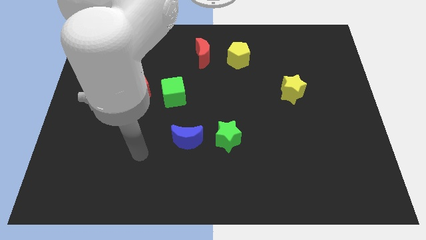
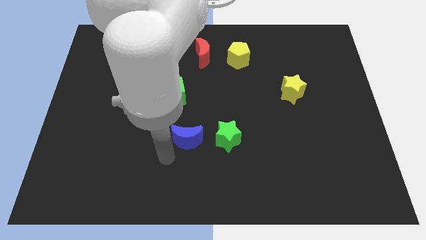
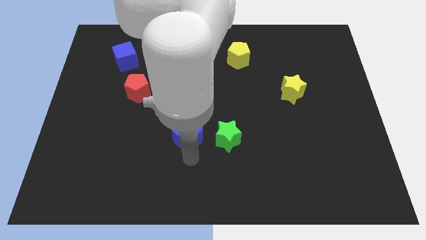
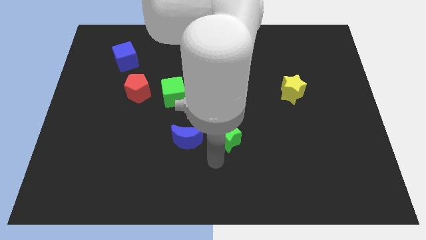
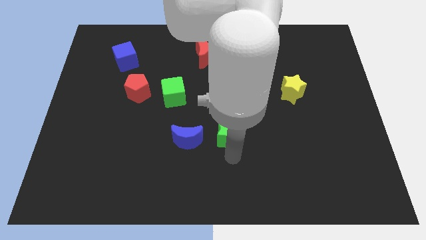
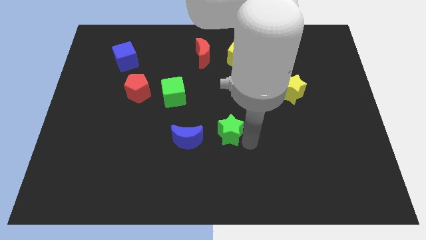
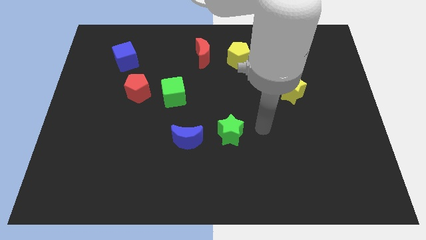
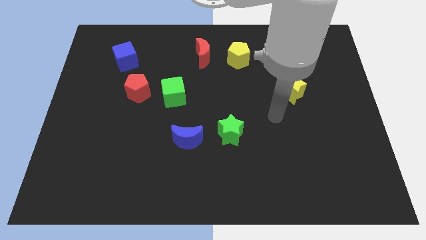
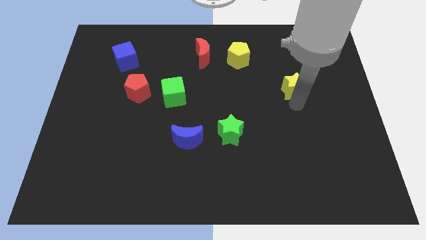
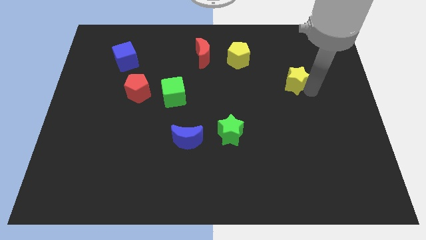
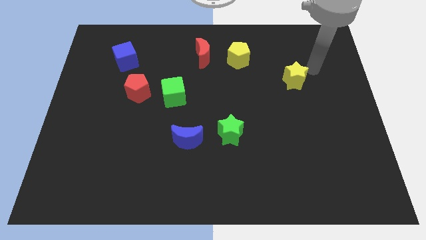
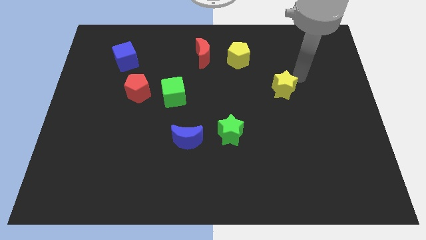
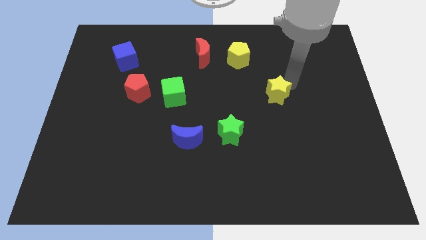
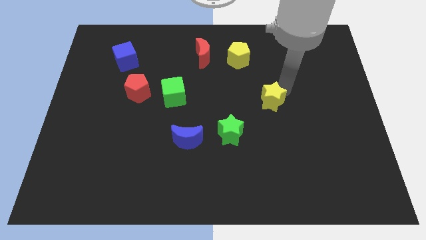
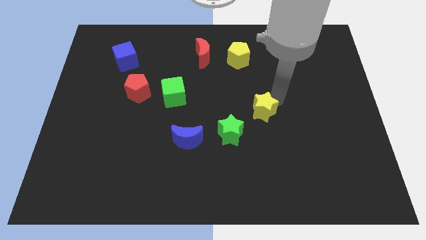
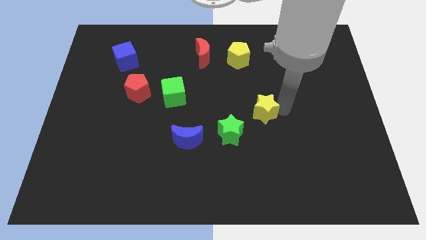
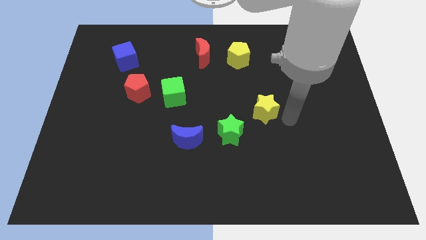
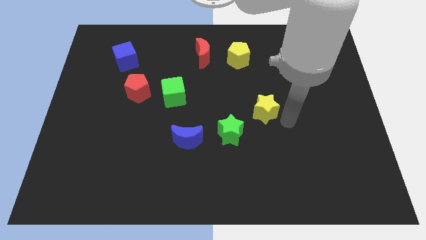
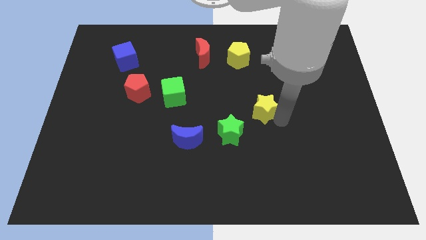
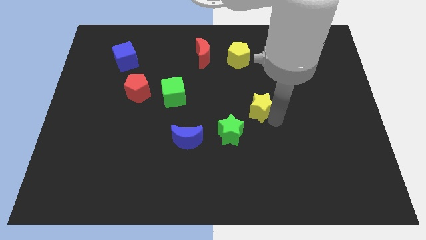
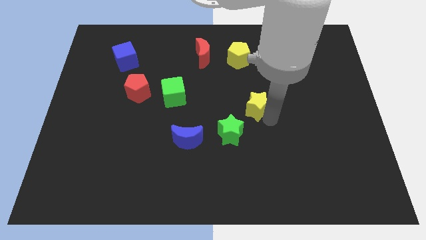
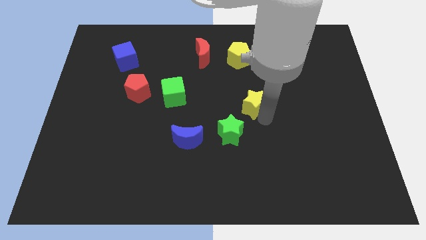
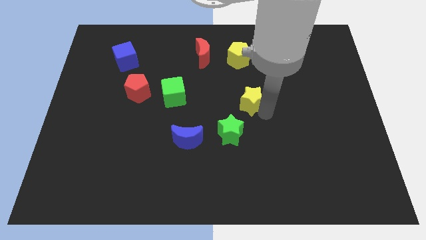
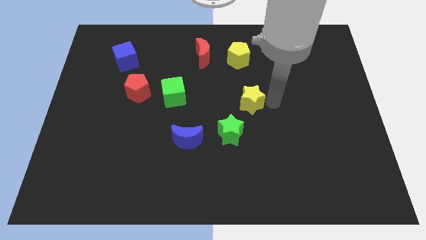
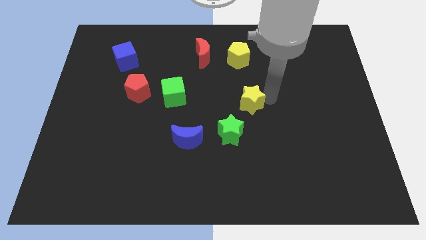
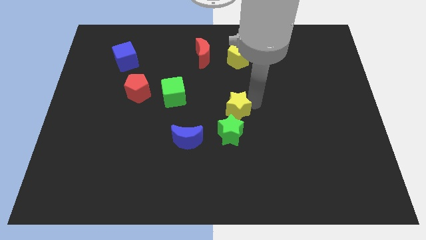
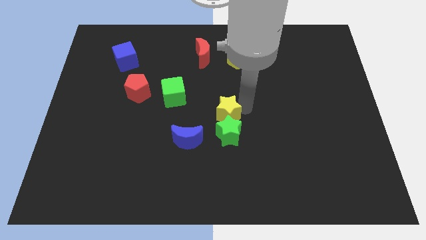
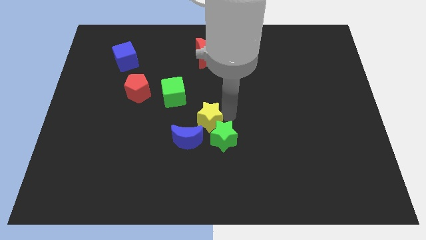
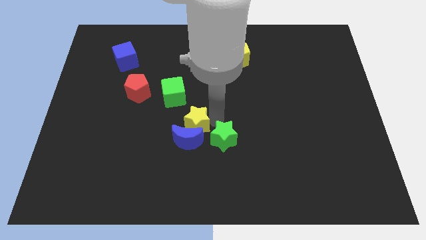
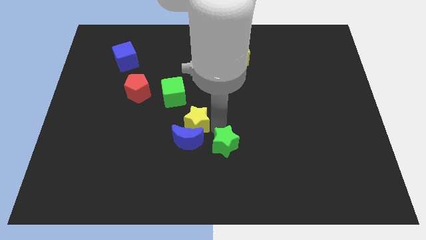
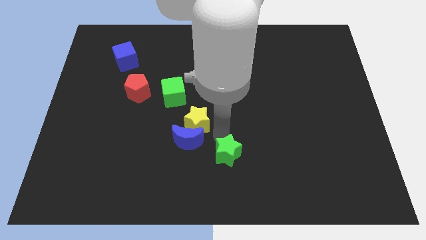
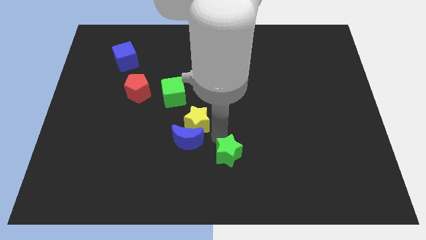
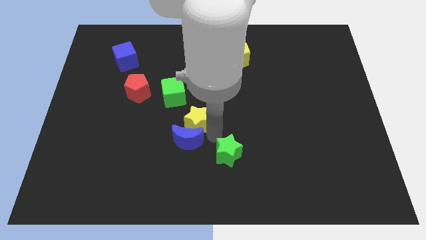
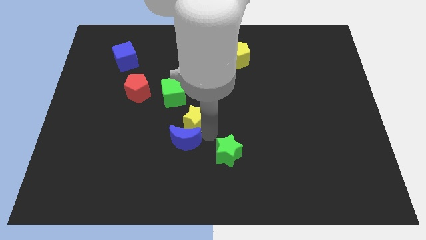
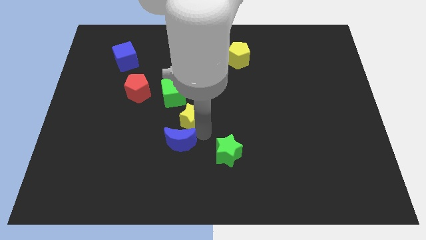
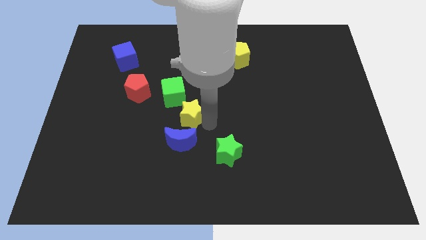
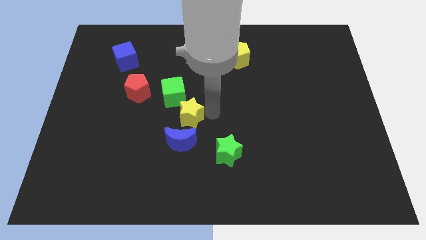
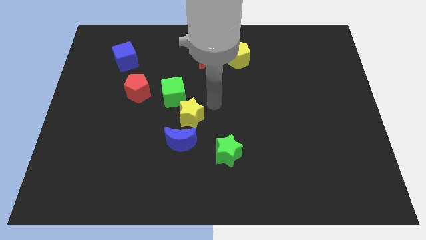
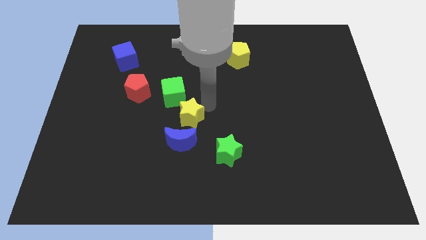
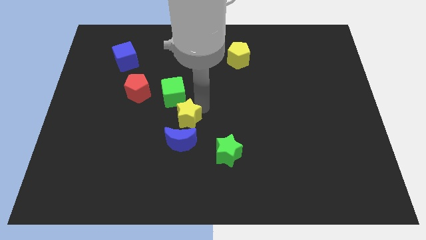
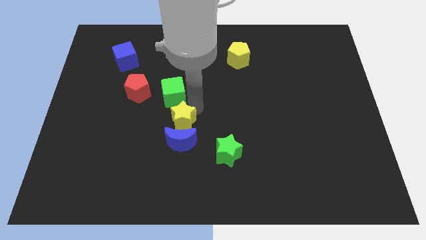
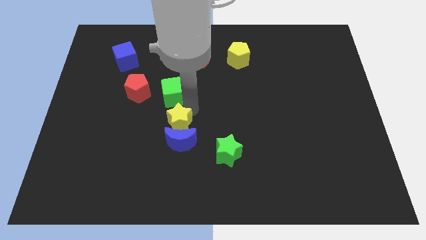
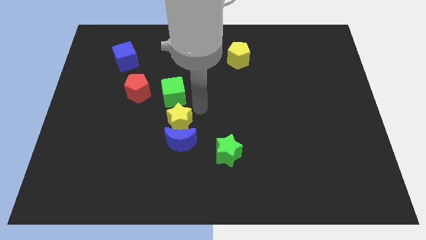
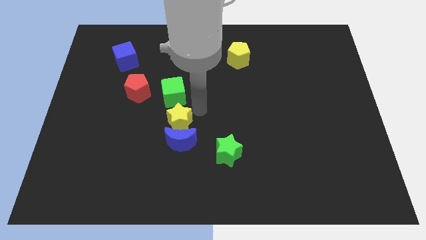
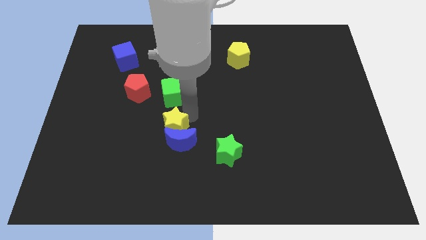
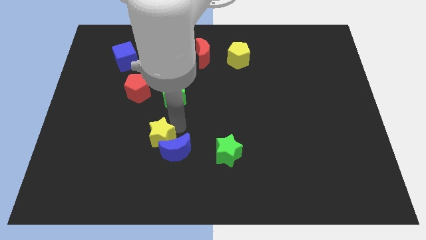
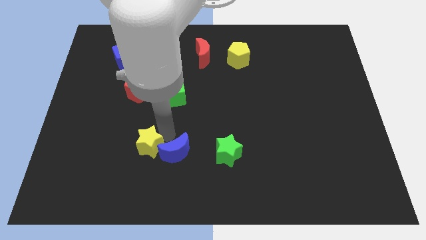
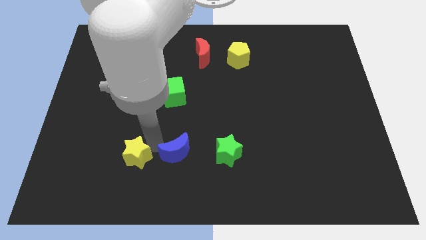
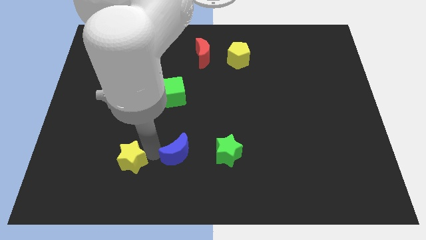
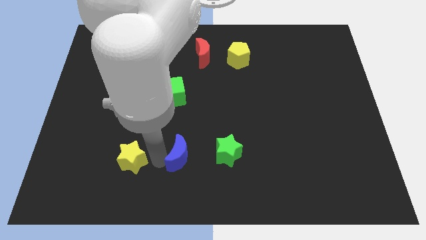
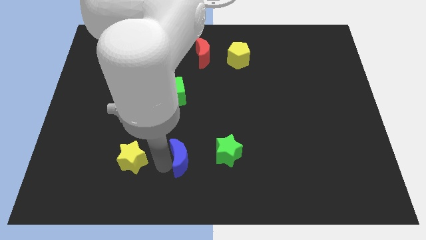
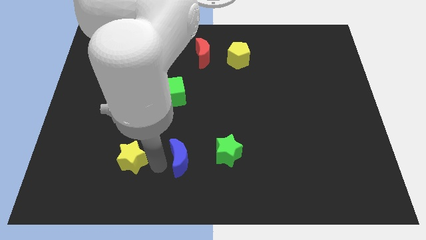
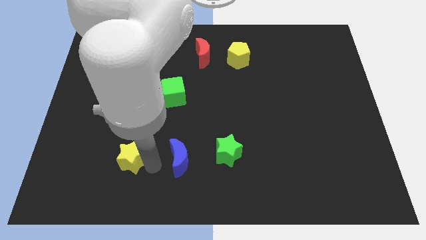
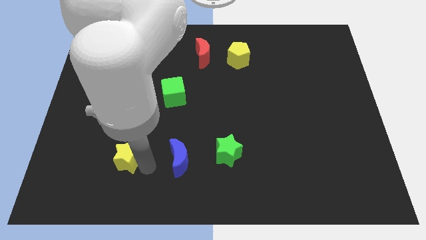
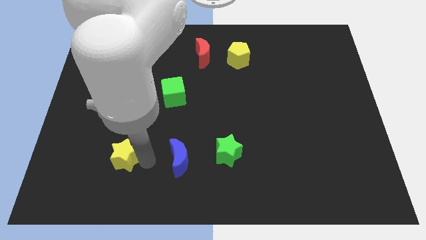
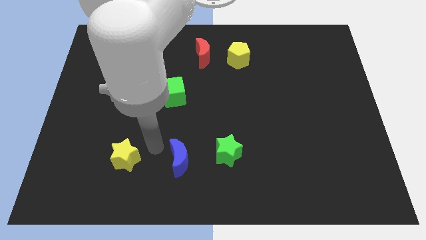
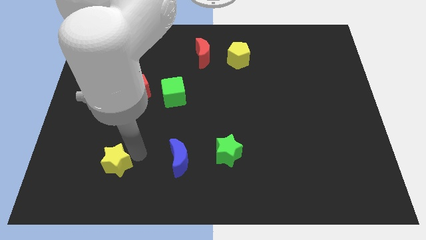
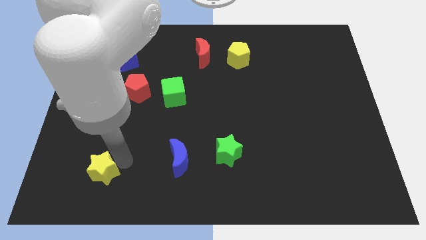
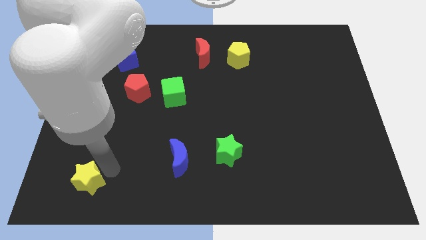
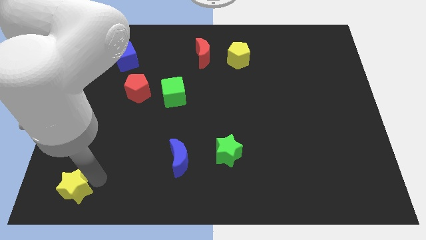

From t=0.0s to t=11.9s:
put the yellow star to the bottom left
